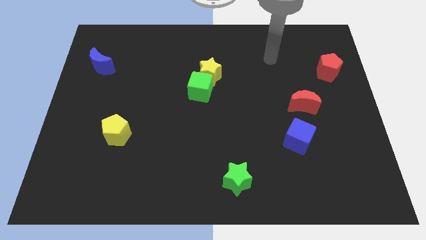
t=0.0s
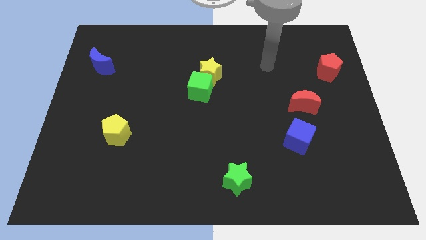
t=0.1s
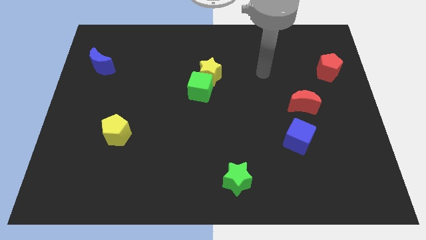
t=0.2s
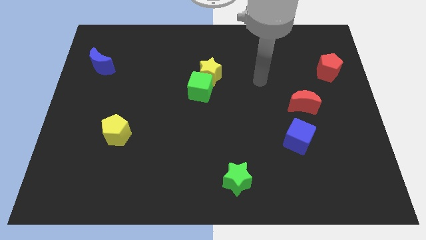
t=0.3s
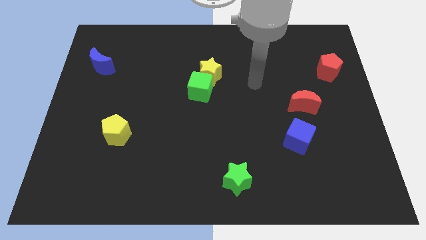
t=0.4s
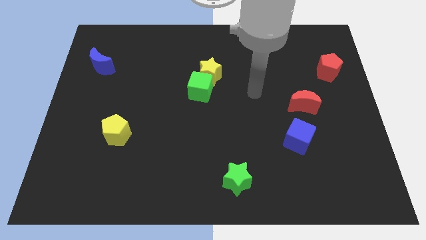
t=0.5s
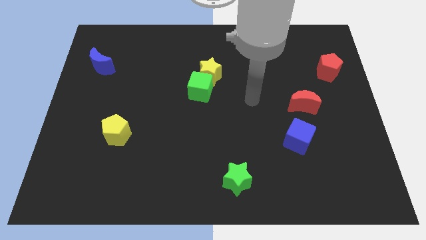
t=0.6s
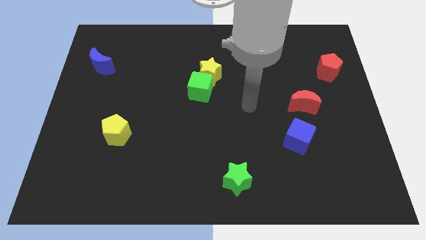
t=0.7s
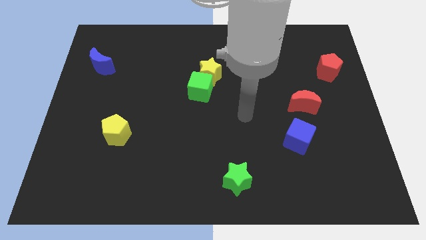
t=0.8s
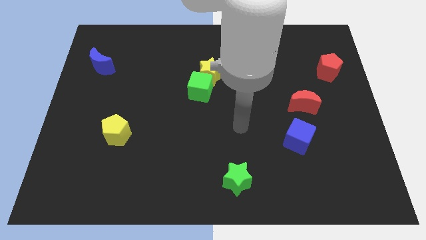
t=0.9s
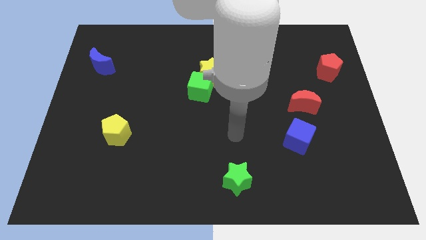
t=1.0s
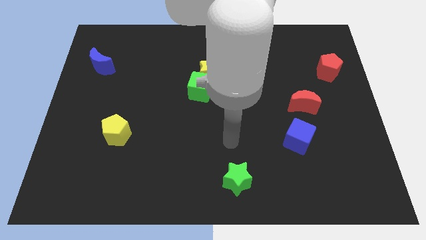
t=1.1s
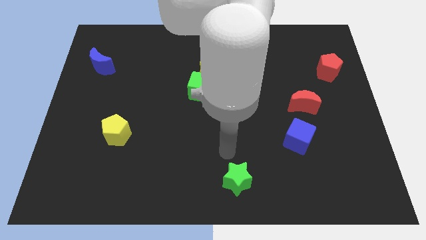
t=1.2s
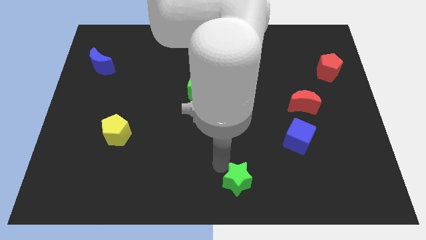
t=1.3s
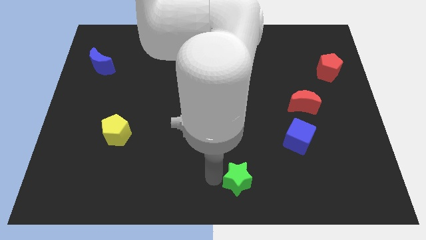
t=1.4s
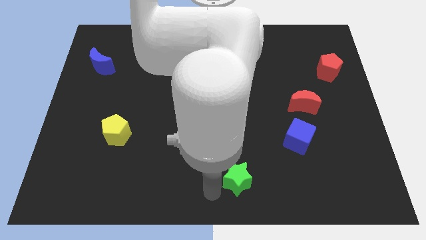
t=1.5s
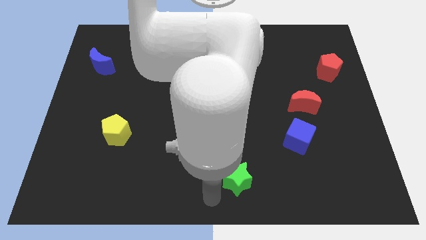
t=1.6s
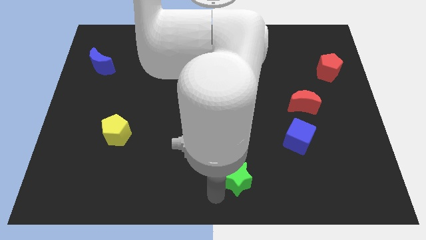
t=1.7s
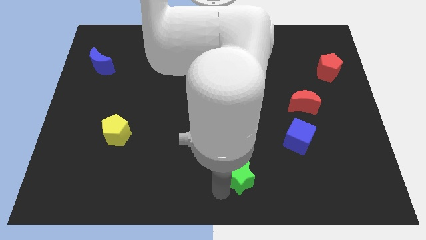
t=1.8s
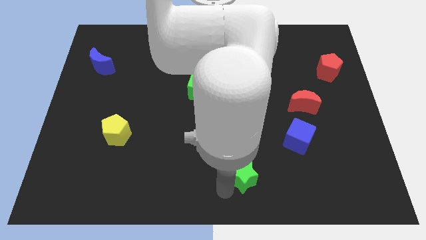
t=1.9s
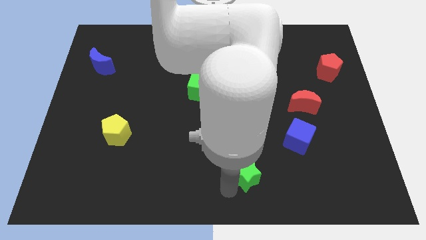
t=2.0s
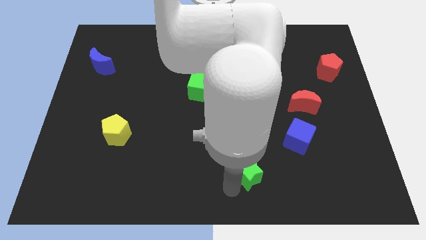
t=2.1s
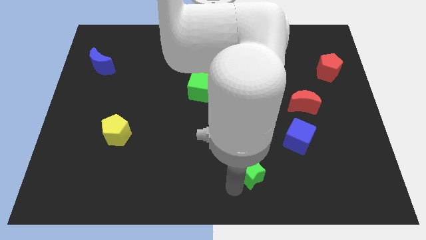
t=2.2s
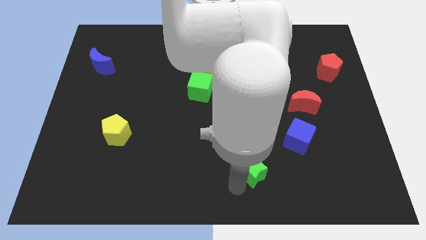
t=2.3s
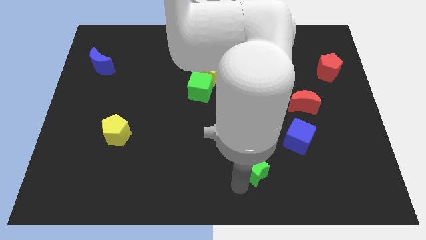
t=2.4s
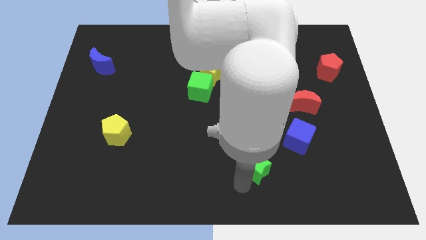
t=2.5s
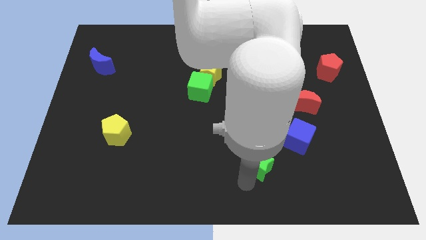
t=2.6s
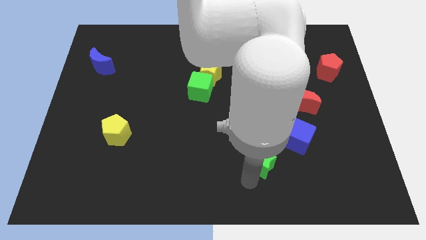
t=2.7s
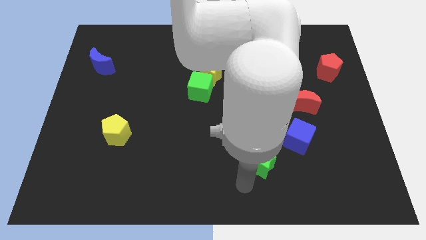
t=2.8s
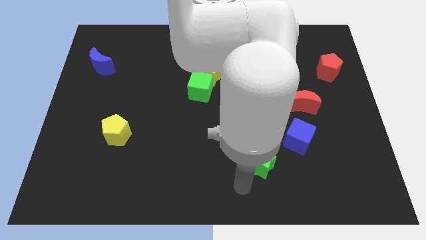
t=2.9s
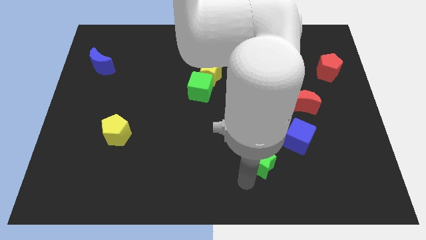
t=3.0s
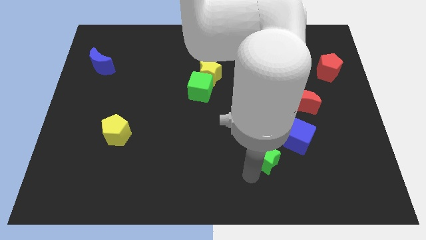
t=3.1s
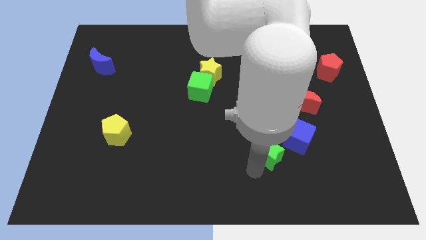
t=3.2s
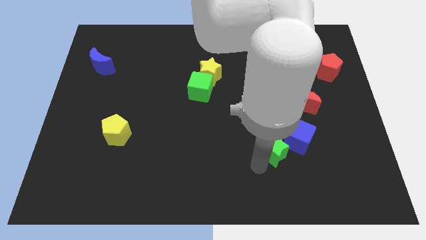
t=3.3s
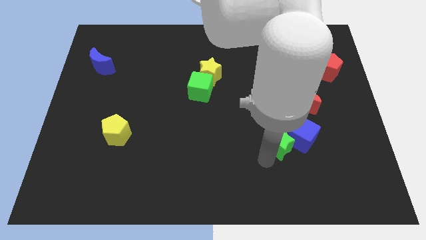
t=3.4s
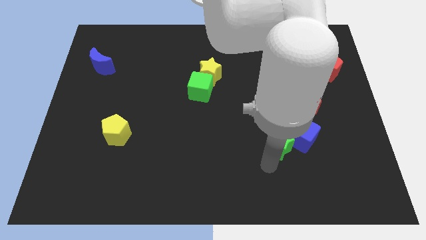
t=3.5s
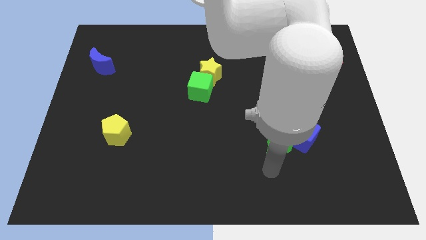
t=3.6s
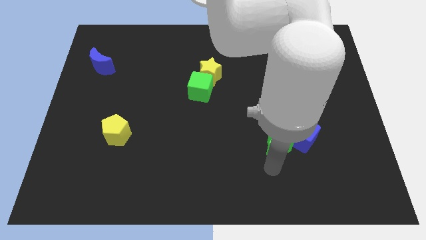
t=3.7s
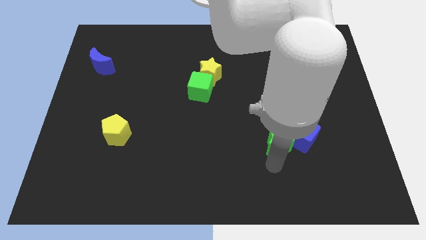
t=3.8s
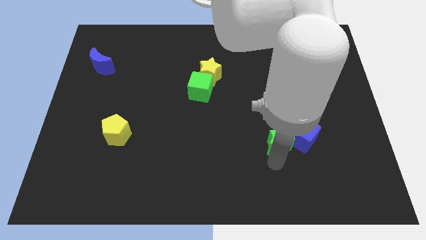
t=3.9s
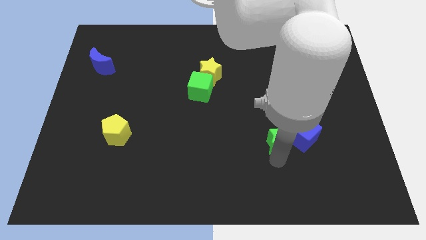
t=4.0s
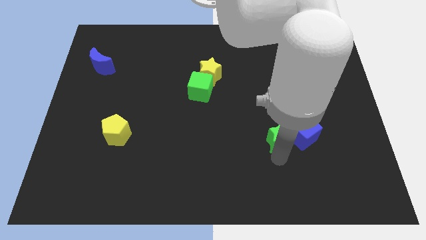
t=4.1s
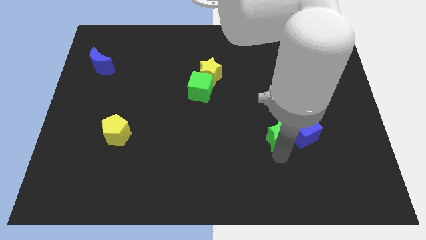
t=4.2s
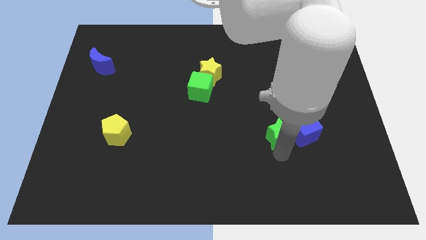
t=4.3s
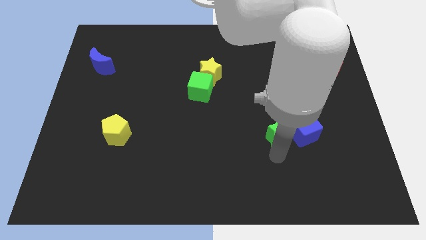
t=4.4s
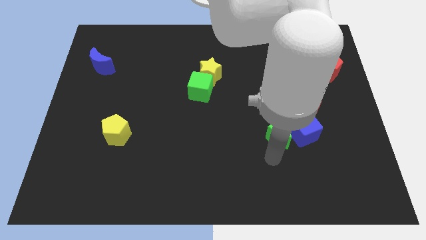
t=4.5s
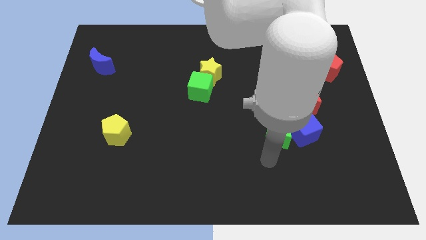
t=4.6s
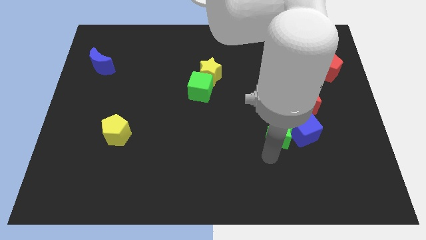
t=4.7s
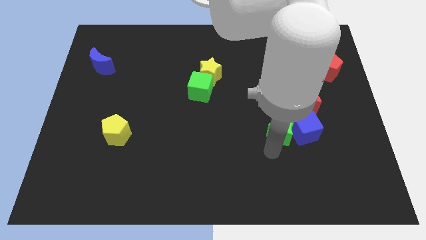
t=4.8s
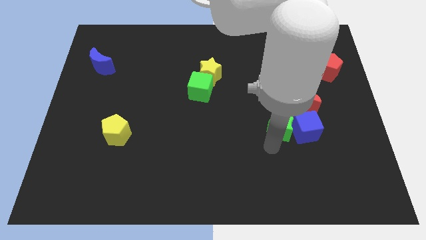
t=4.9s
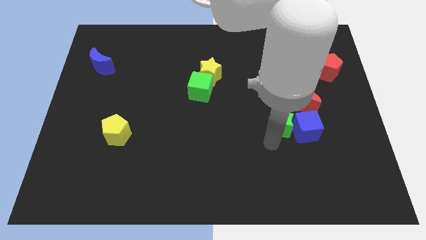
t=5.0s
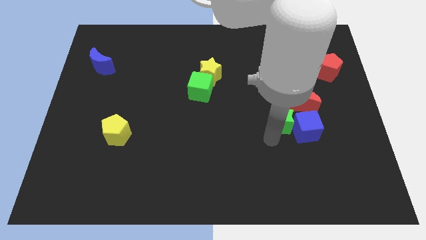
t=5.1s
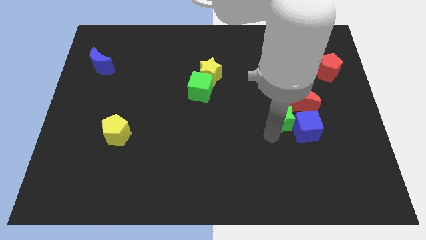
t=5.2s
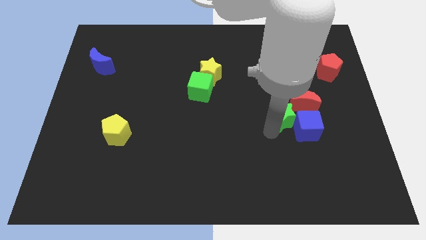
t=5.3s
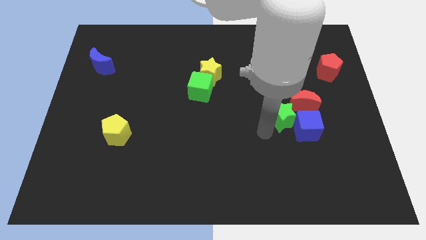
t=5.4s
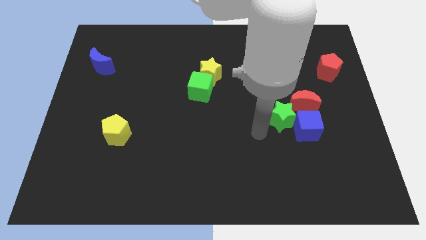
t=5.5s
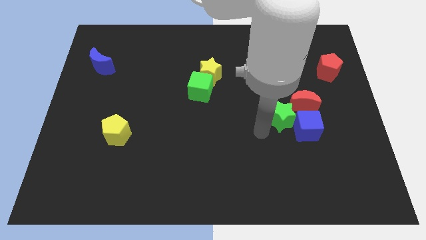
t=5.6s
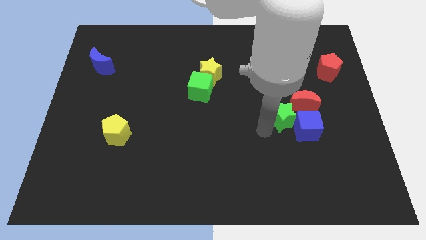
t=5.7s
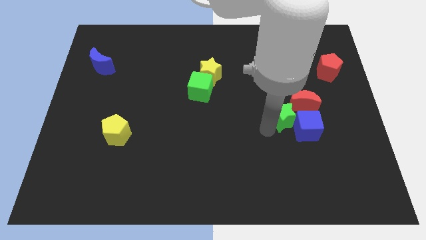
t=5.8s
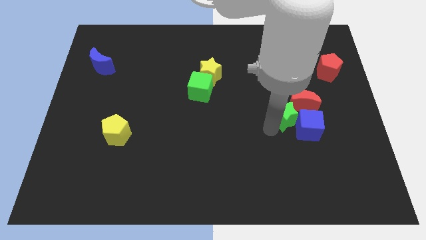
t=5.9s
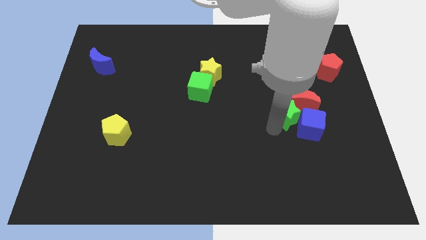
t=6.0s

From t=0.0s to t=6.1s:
push the green star towards the red moon
